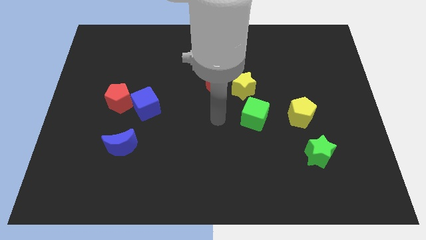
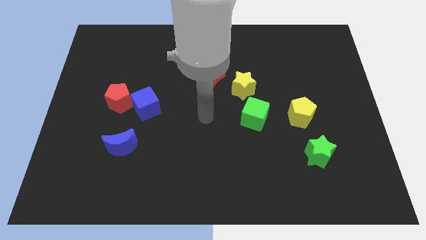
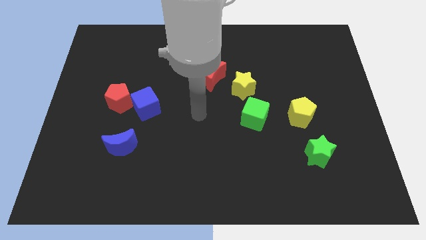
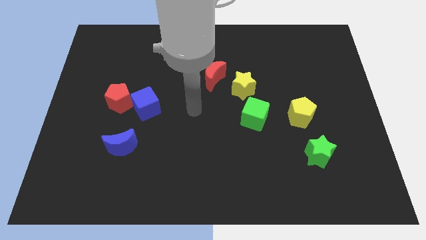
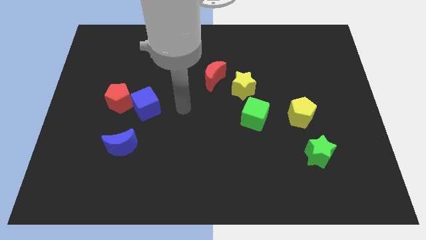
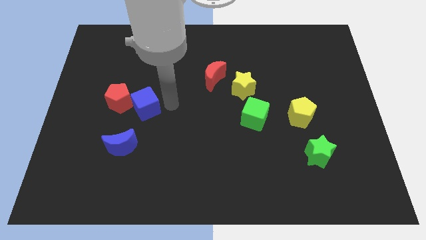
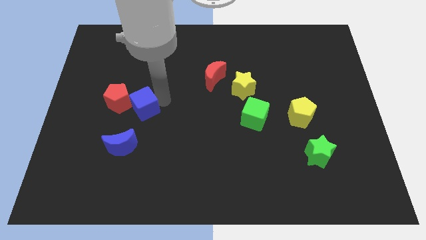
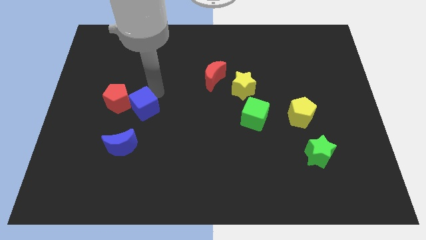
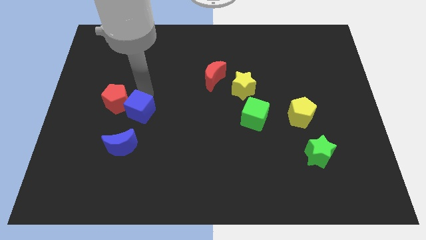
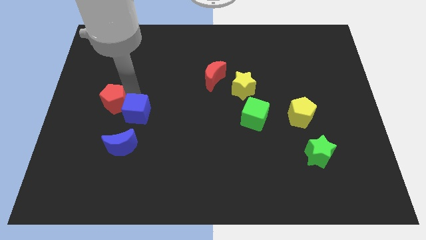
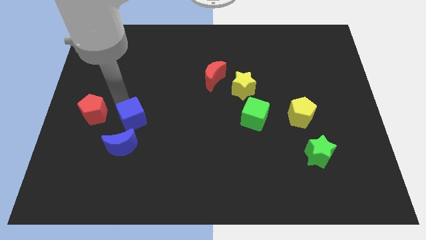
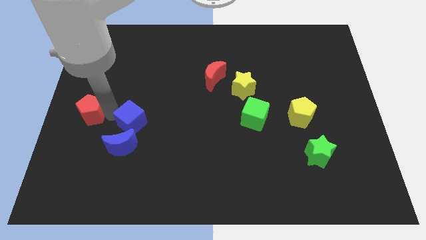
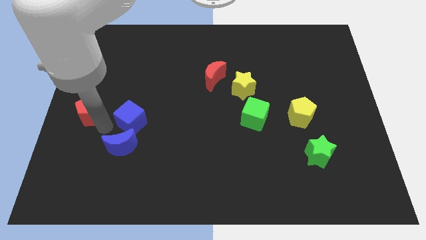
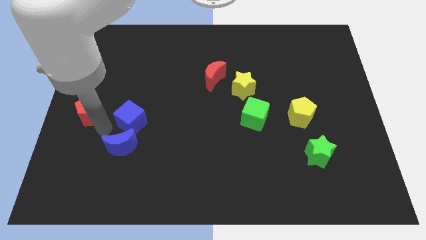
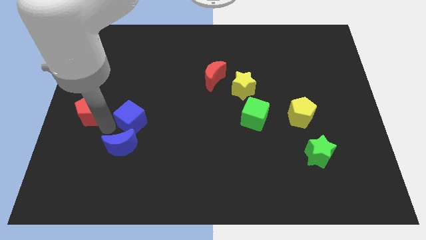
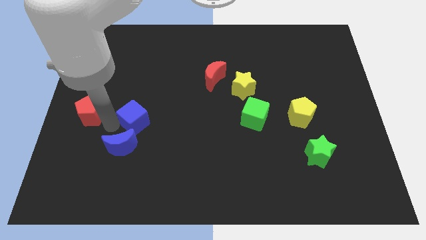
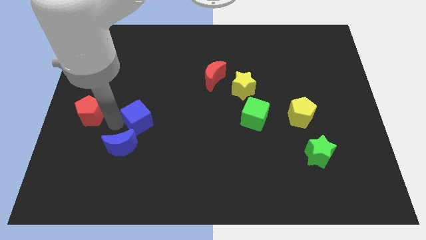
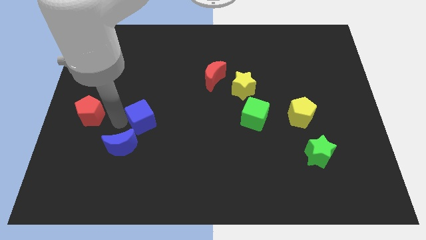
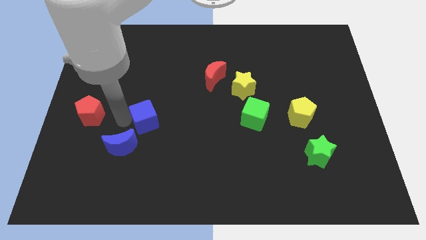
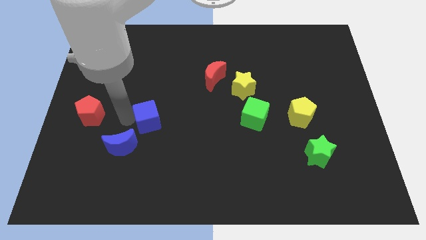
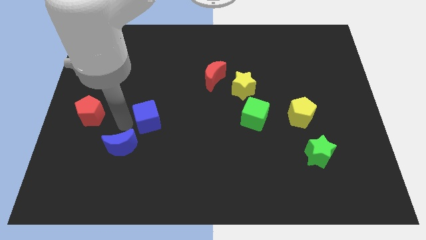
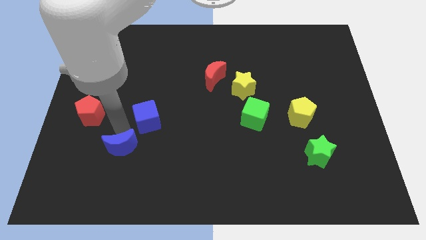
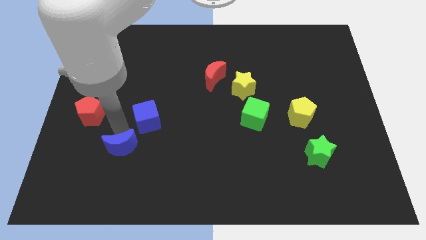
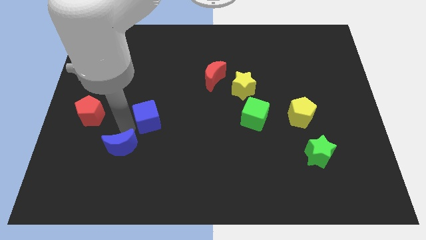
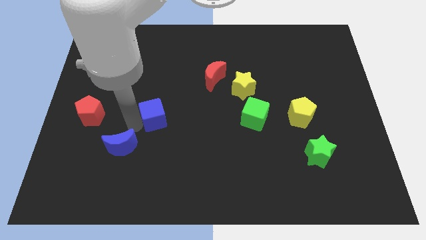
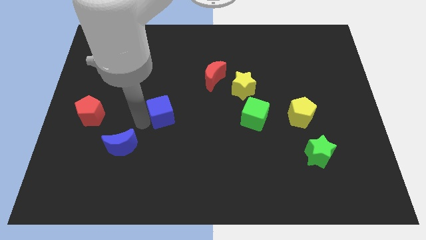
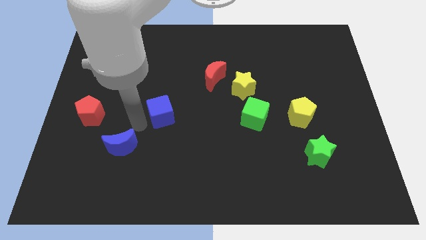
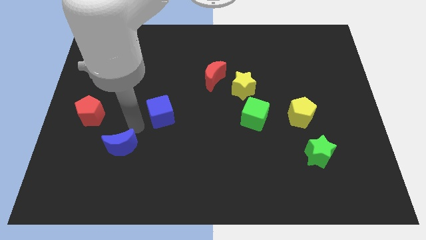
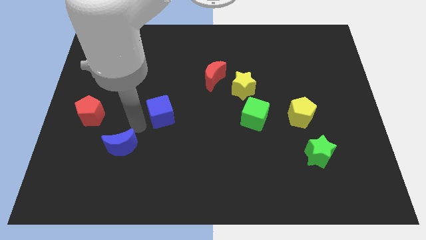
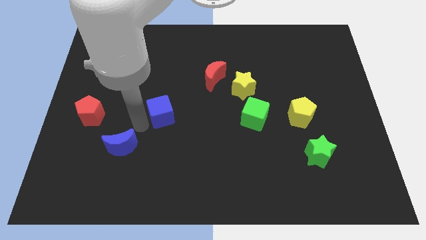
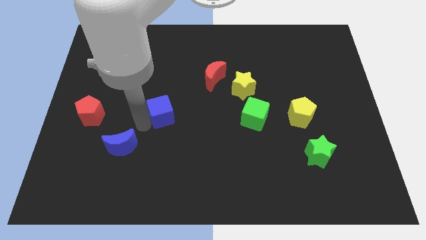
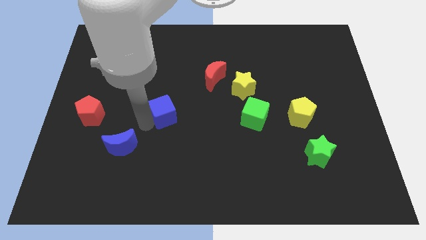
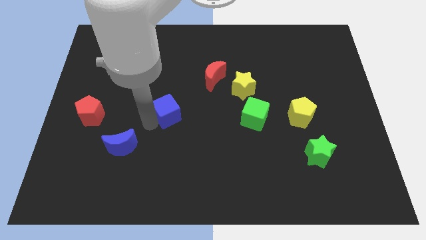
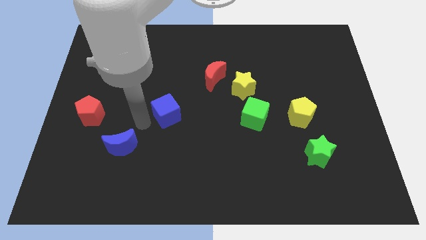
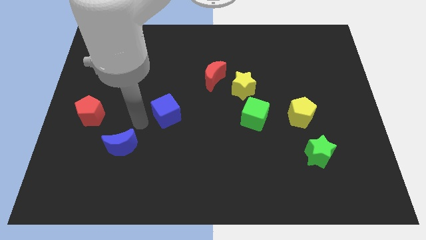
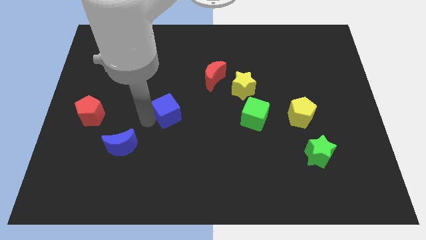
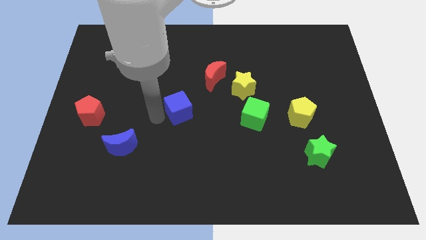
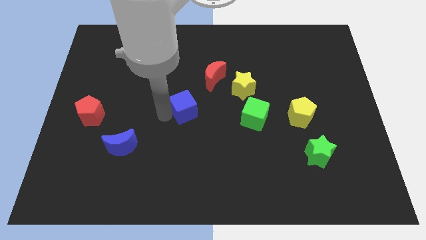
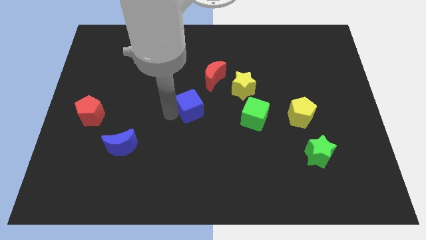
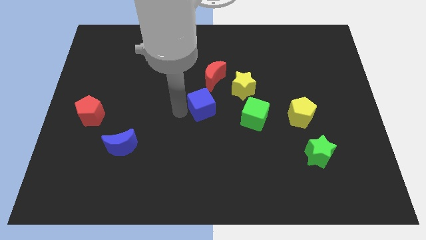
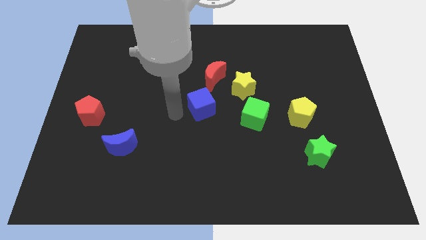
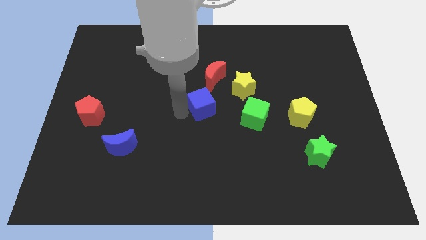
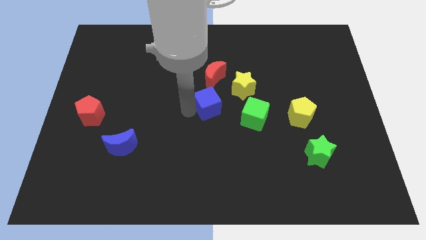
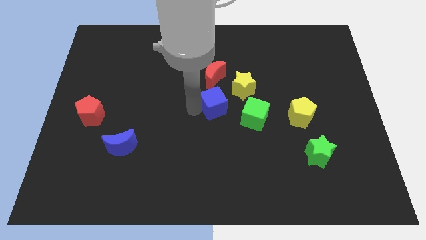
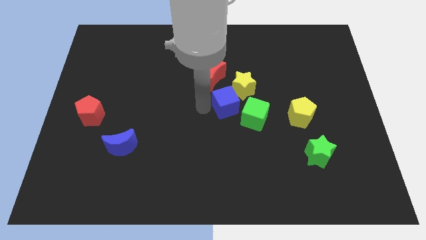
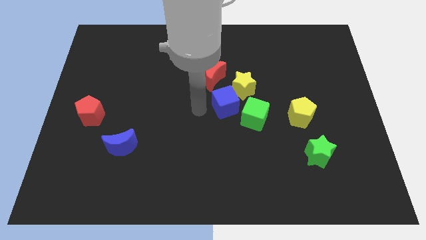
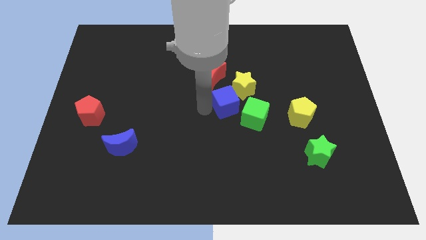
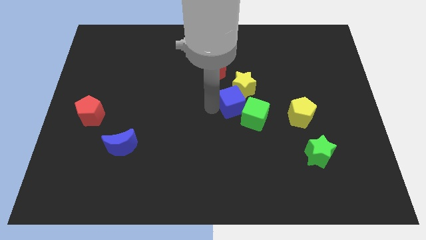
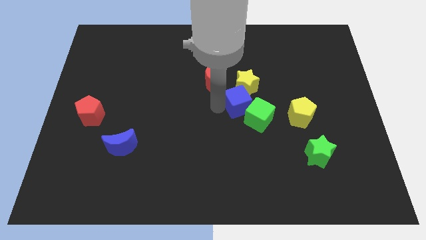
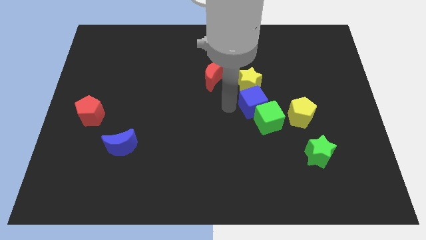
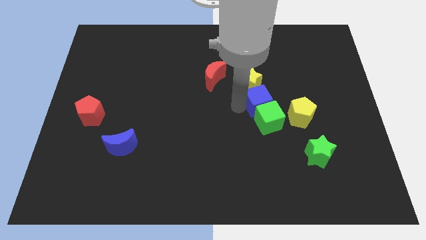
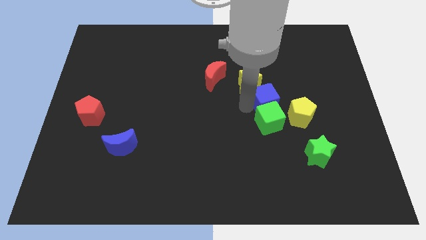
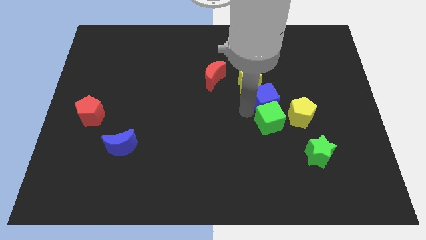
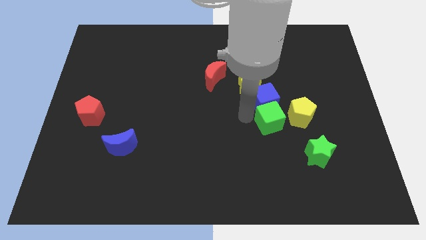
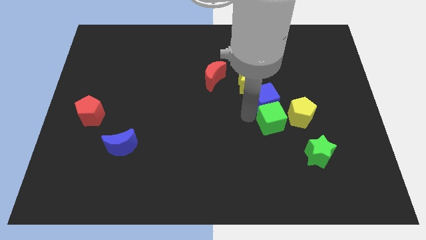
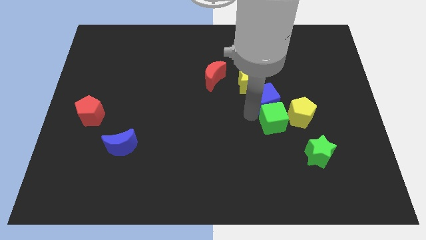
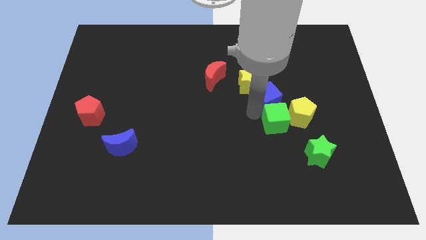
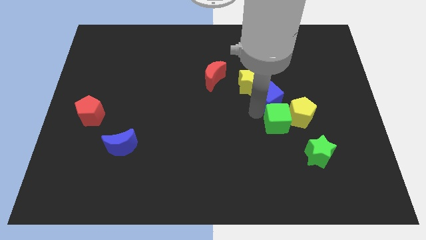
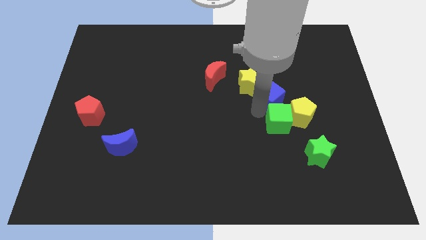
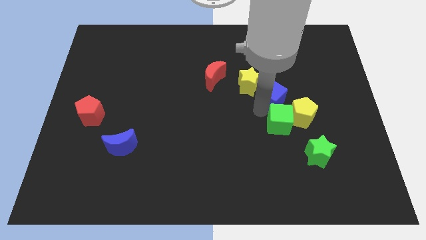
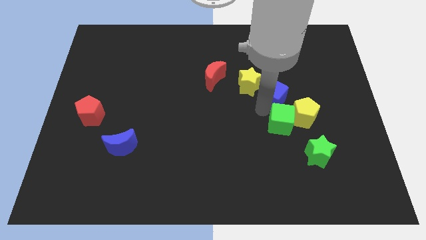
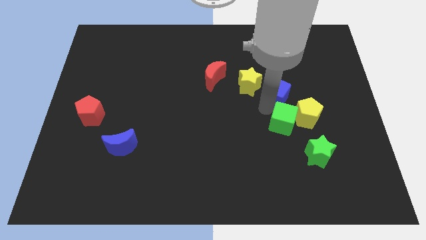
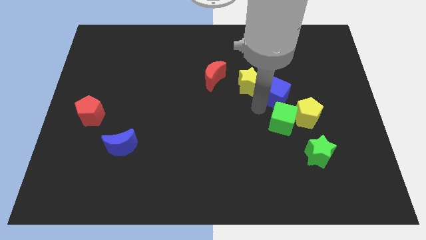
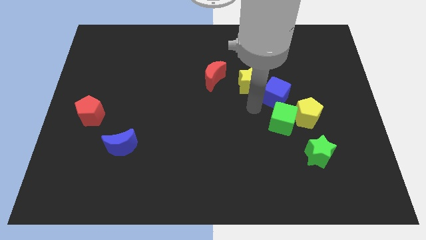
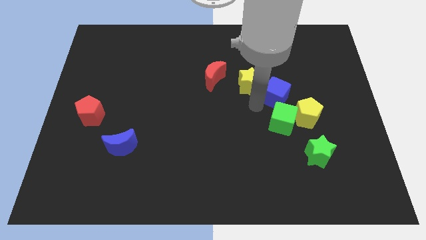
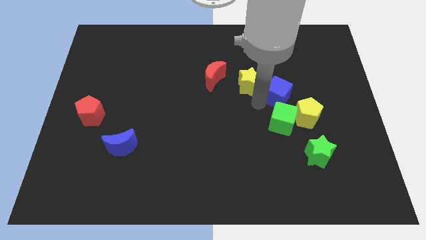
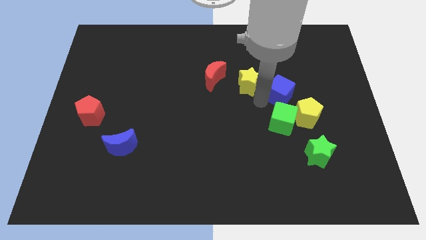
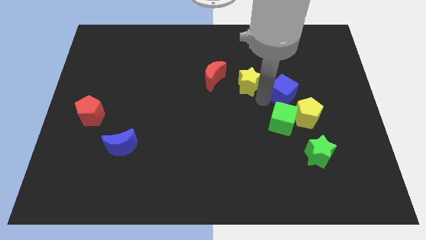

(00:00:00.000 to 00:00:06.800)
move the blue cube above the yellow pentagon

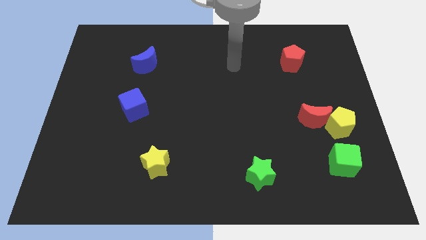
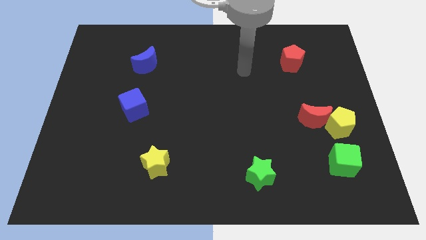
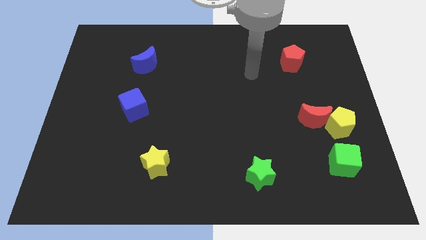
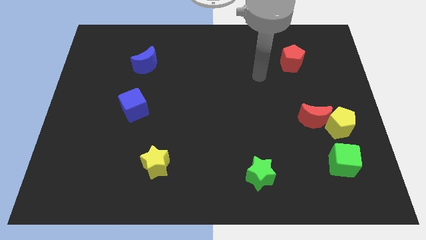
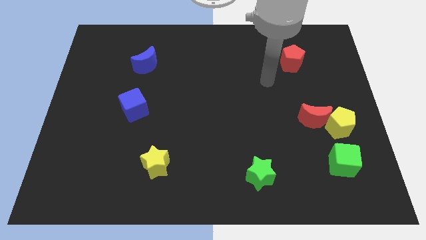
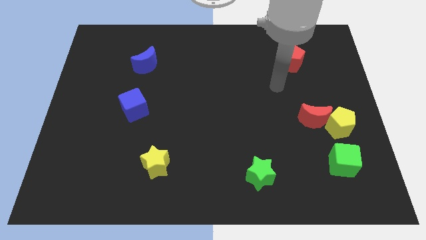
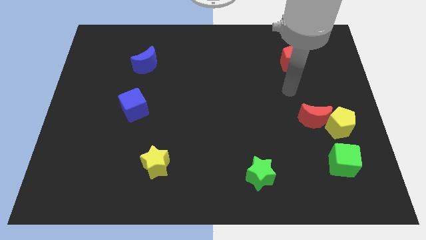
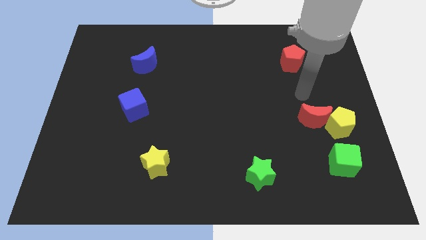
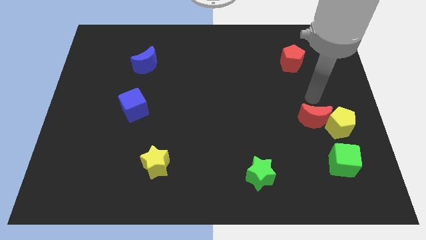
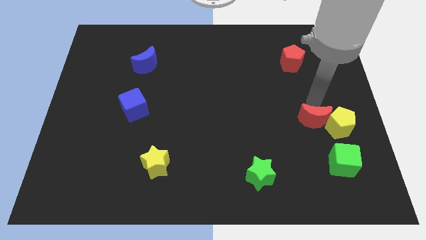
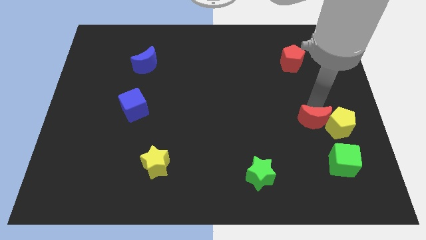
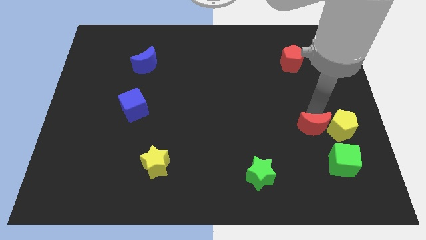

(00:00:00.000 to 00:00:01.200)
put the red moon diagonally up and to the left of the green cube
